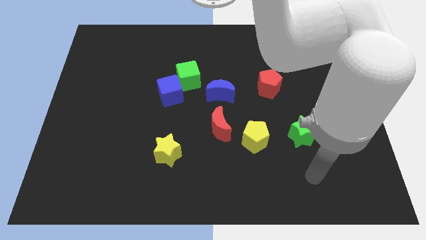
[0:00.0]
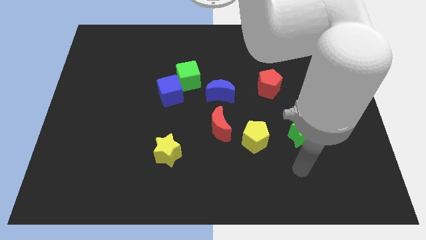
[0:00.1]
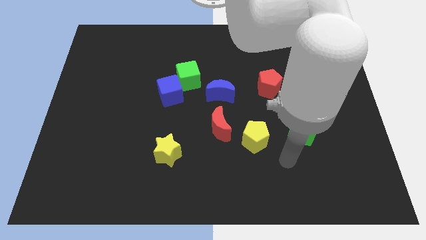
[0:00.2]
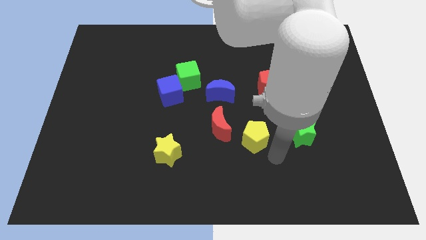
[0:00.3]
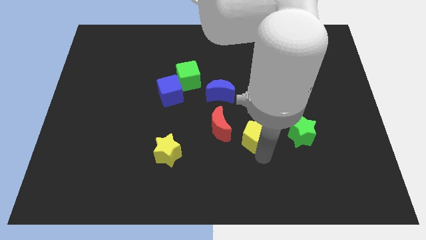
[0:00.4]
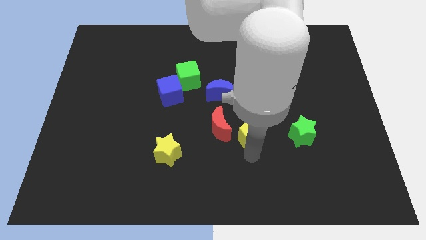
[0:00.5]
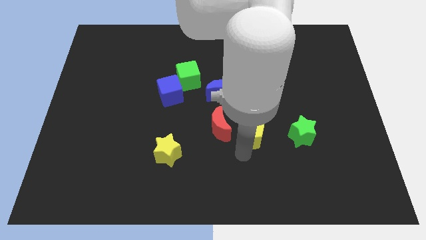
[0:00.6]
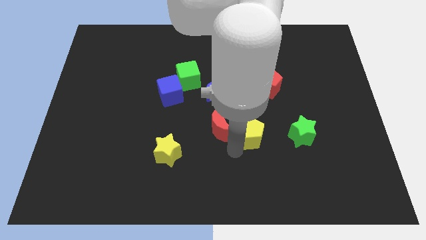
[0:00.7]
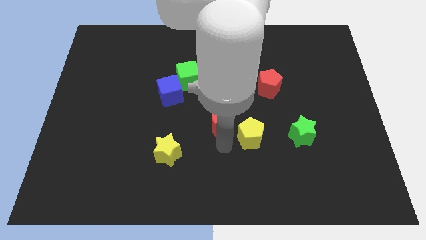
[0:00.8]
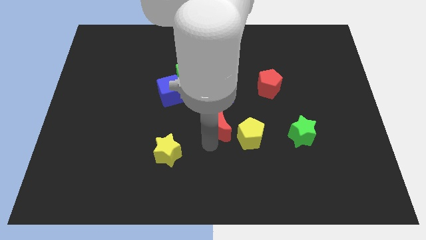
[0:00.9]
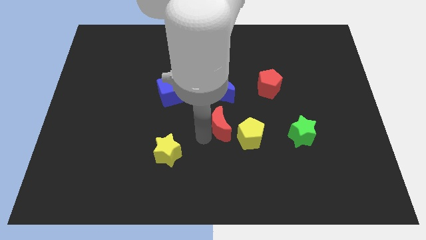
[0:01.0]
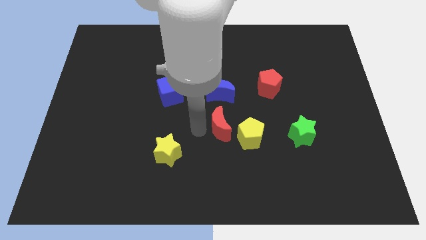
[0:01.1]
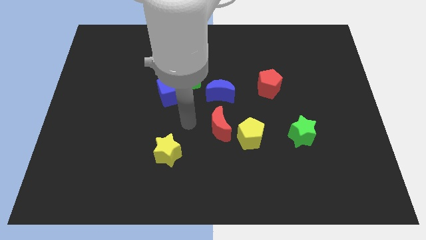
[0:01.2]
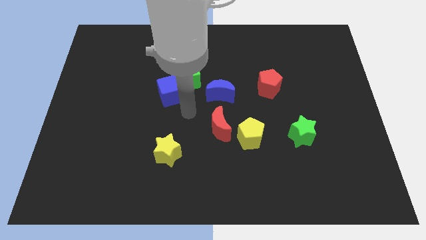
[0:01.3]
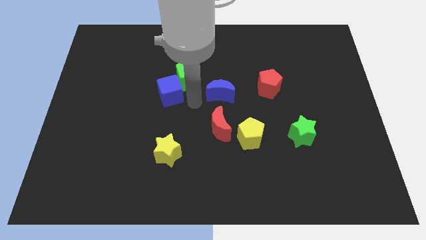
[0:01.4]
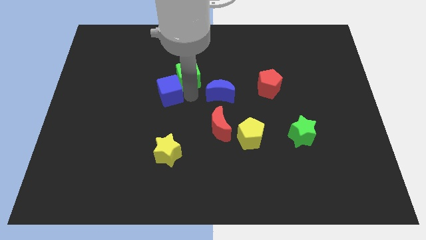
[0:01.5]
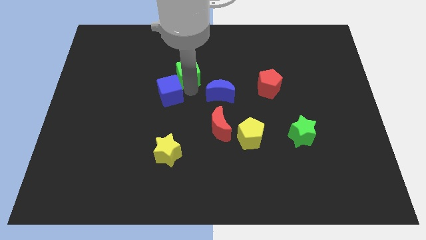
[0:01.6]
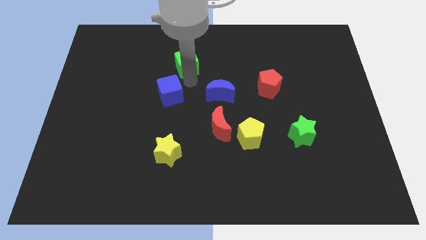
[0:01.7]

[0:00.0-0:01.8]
move the blue cube away from the green cube

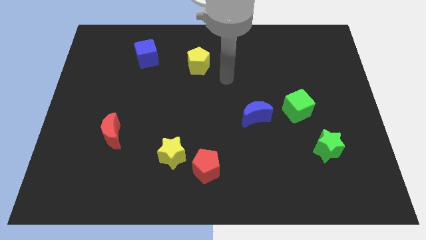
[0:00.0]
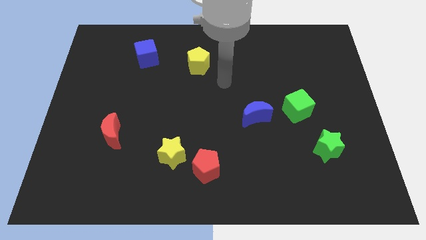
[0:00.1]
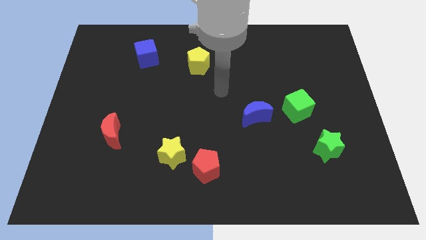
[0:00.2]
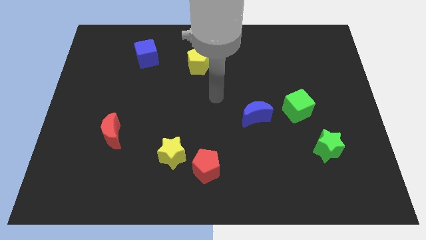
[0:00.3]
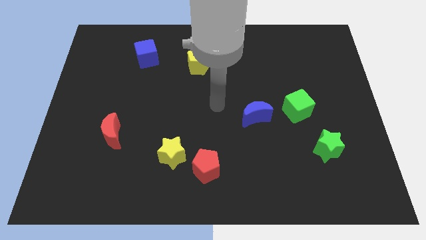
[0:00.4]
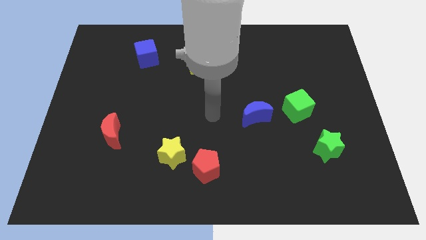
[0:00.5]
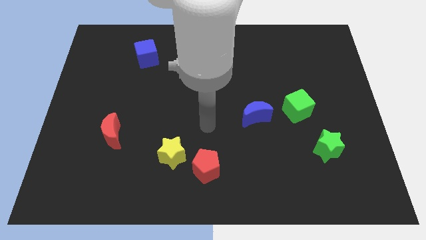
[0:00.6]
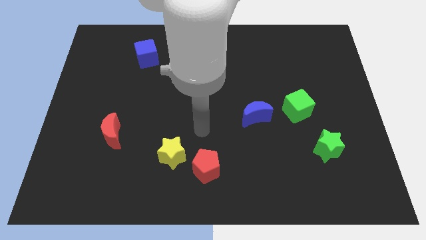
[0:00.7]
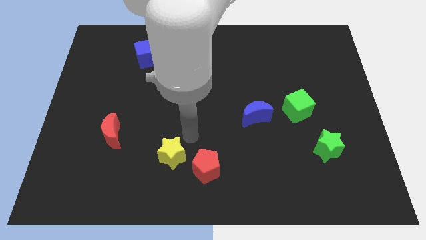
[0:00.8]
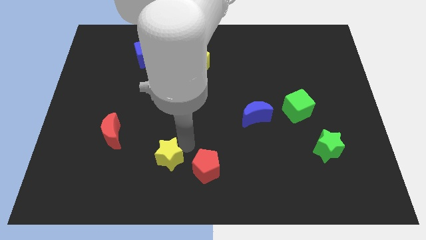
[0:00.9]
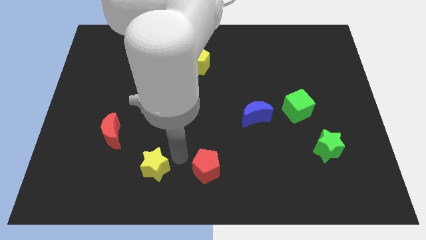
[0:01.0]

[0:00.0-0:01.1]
move the red pentagon away from the yellow star

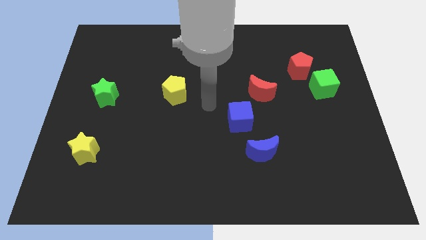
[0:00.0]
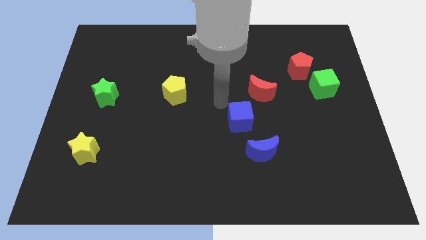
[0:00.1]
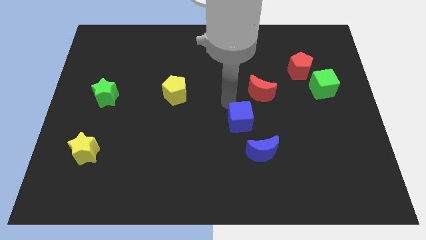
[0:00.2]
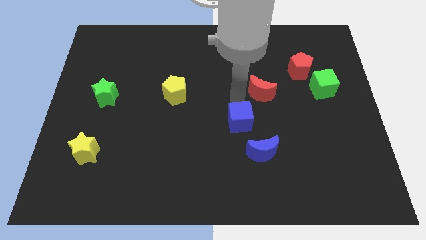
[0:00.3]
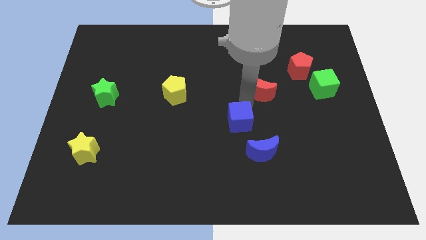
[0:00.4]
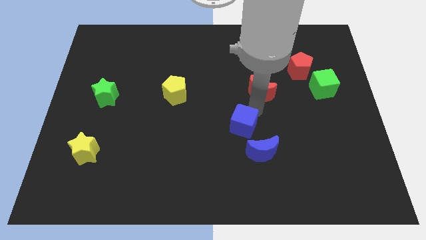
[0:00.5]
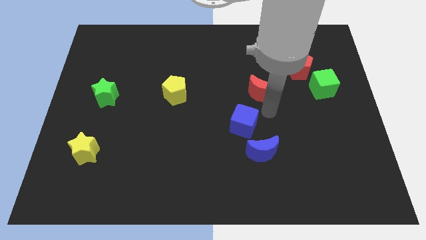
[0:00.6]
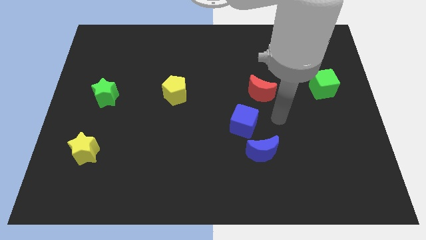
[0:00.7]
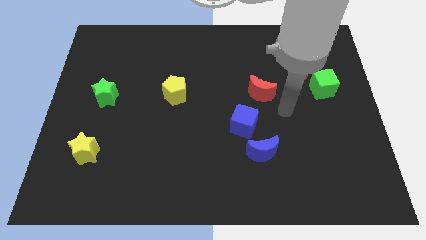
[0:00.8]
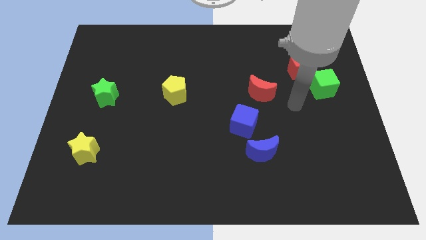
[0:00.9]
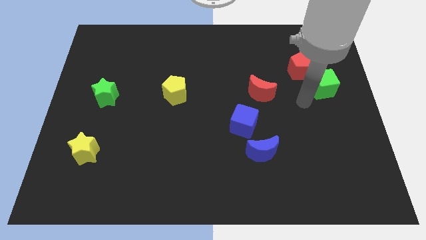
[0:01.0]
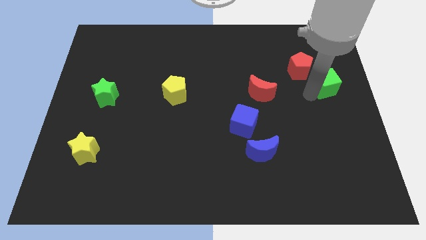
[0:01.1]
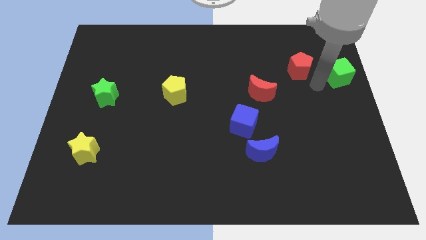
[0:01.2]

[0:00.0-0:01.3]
move the red pentagon away from the green cube

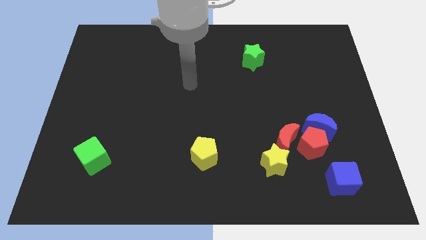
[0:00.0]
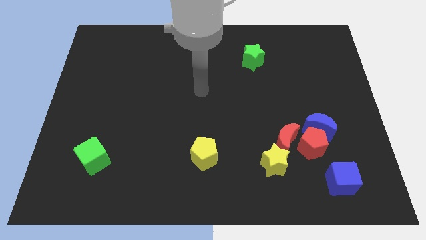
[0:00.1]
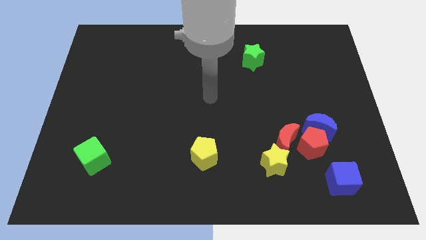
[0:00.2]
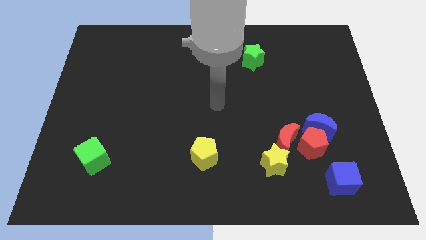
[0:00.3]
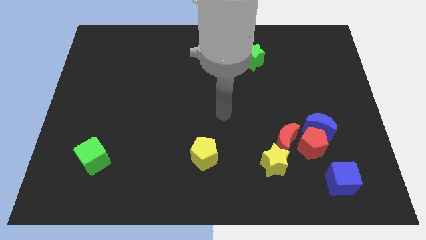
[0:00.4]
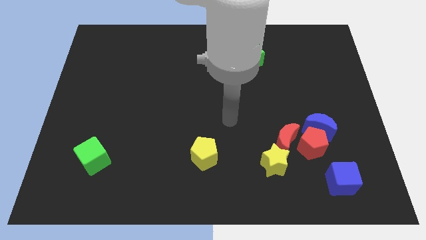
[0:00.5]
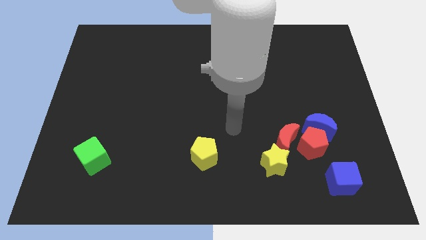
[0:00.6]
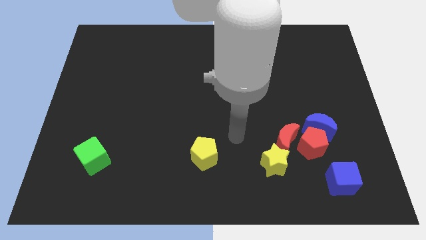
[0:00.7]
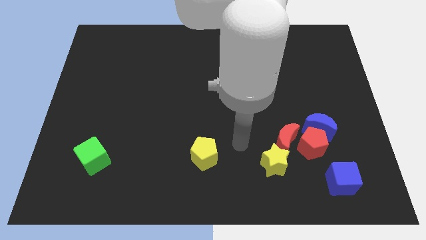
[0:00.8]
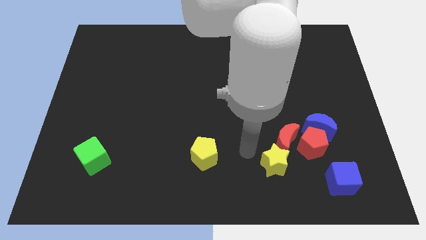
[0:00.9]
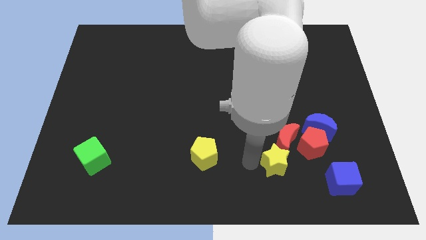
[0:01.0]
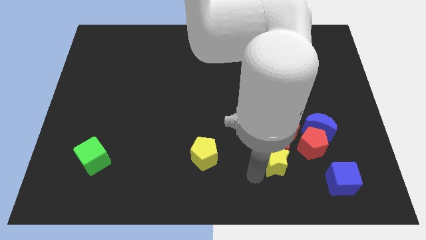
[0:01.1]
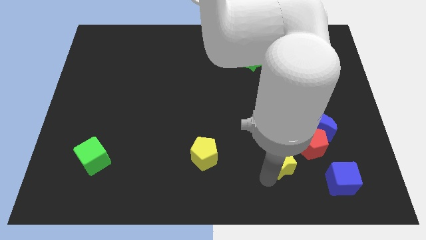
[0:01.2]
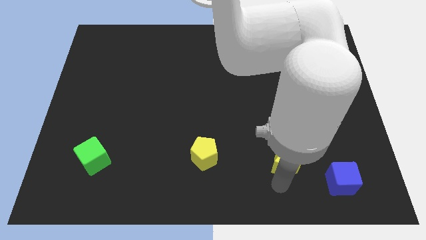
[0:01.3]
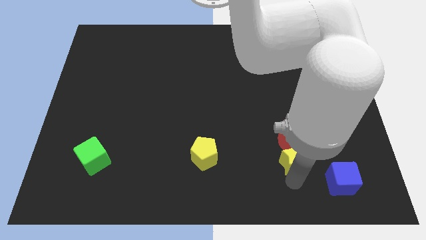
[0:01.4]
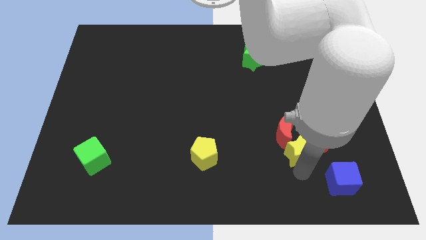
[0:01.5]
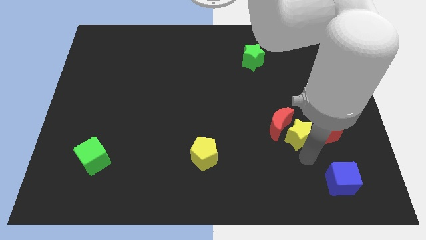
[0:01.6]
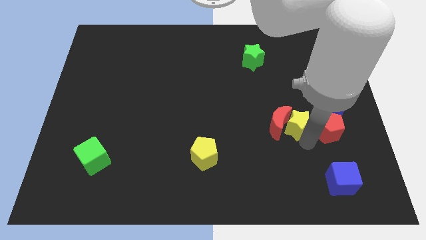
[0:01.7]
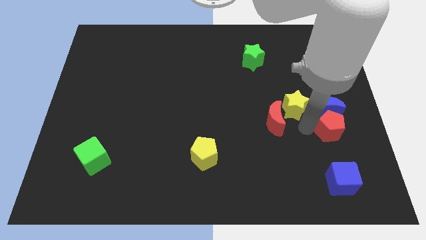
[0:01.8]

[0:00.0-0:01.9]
pull the red moon apart from the red pentagon, yellow star, and blue moon

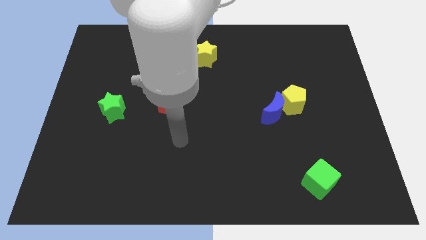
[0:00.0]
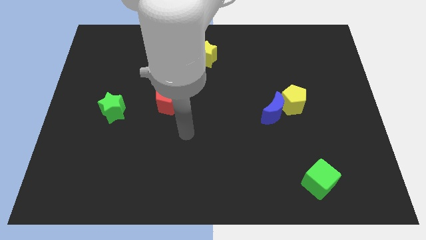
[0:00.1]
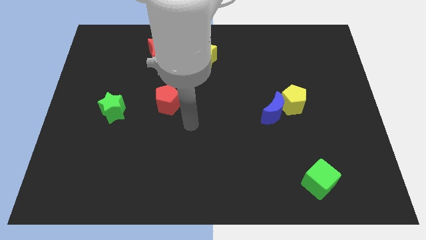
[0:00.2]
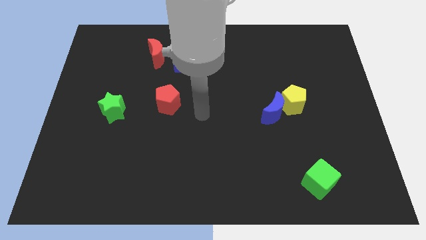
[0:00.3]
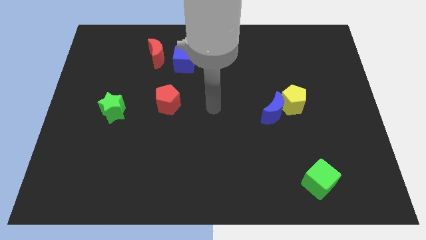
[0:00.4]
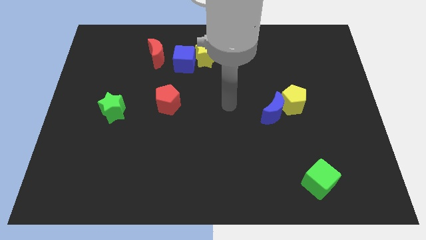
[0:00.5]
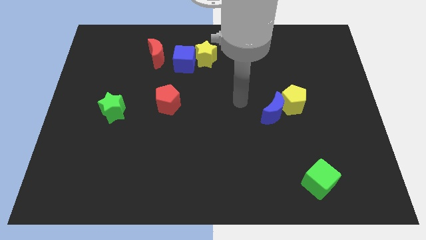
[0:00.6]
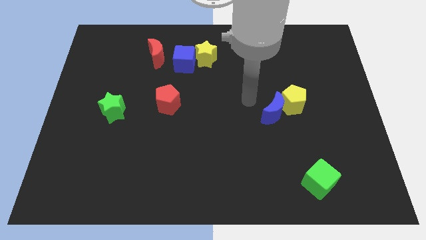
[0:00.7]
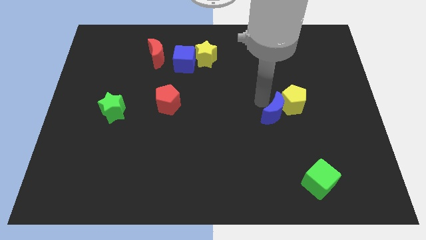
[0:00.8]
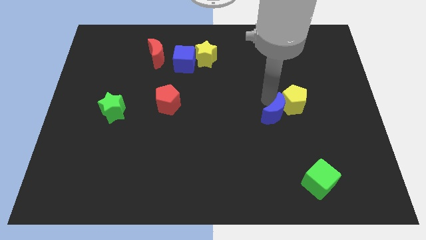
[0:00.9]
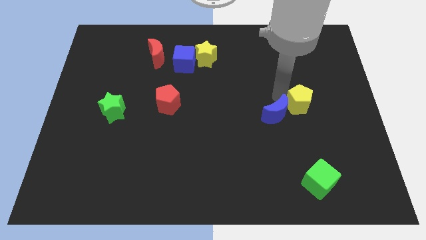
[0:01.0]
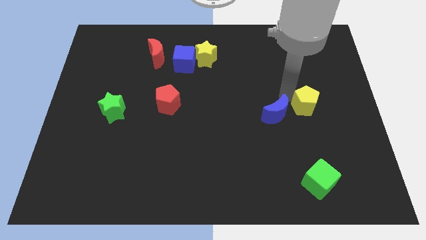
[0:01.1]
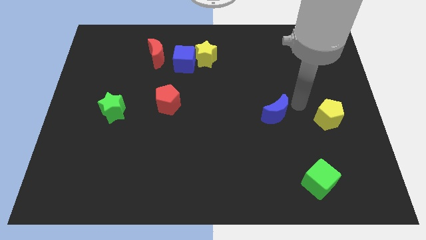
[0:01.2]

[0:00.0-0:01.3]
pull the blue moon apart from the yellow pentagon

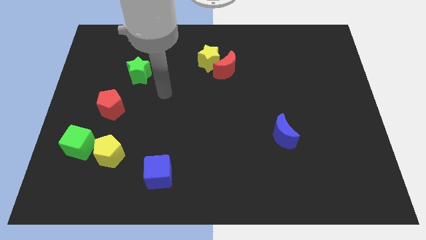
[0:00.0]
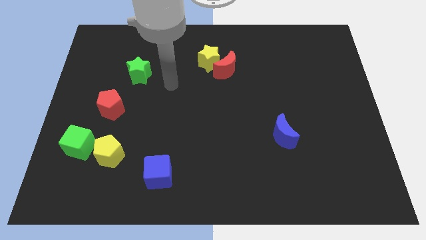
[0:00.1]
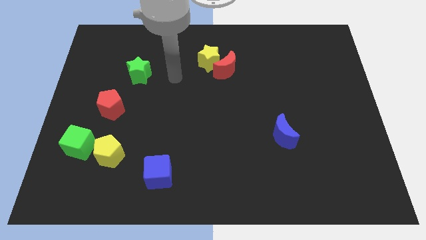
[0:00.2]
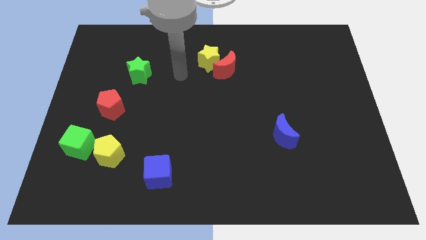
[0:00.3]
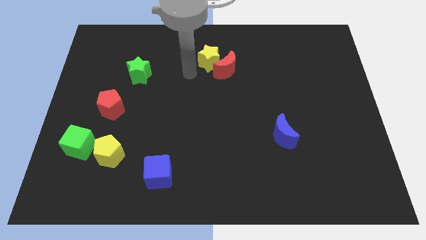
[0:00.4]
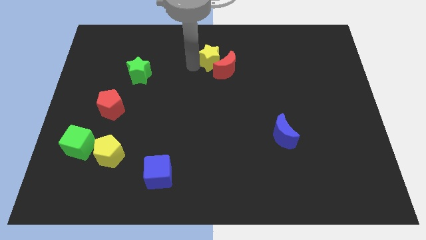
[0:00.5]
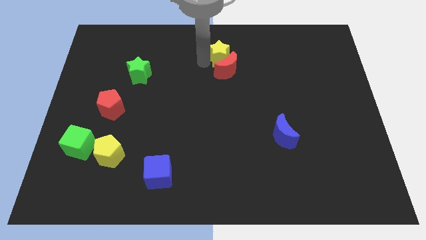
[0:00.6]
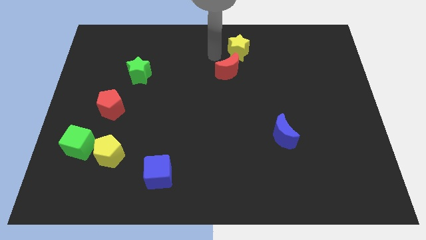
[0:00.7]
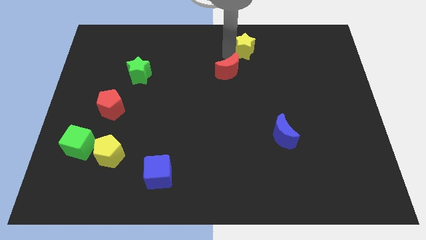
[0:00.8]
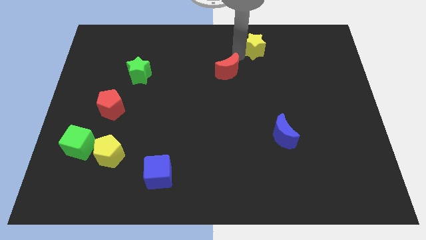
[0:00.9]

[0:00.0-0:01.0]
pull the red moon apart from the yellow star

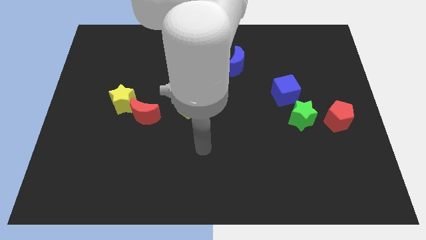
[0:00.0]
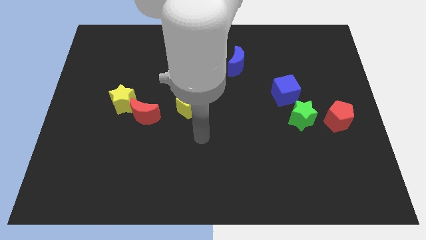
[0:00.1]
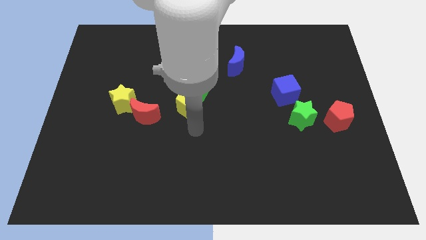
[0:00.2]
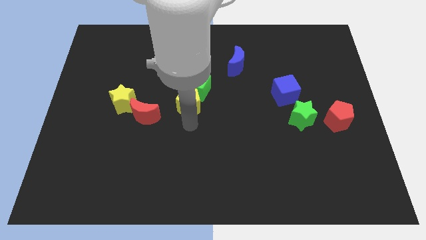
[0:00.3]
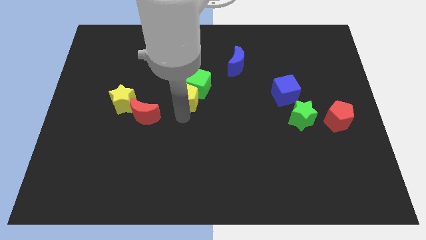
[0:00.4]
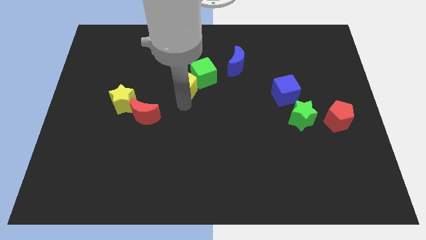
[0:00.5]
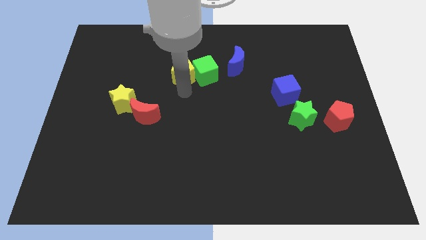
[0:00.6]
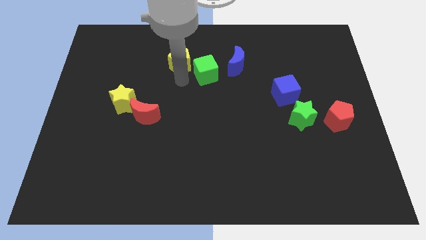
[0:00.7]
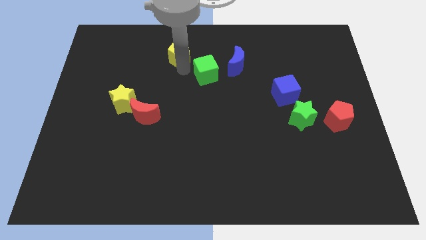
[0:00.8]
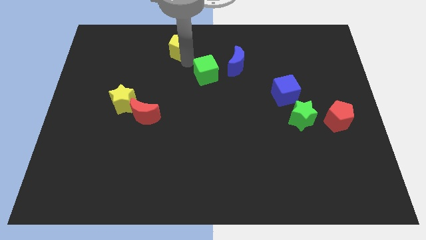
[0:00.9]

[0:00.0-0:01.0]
pull the green cube apart from the yellow pentagon
